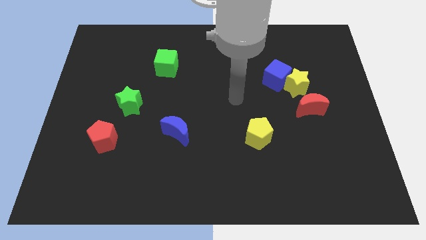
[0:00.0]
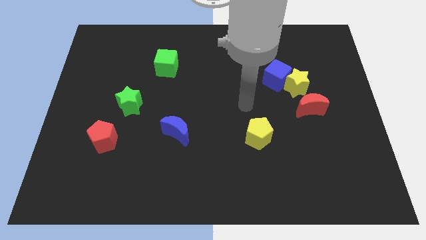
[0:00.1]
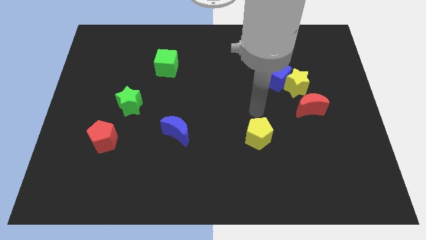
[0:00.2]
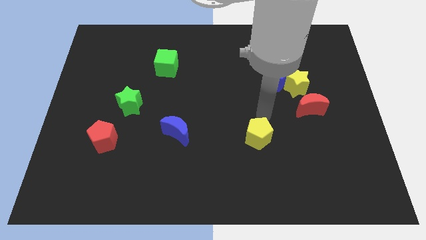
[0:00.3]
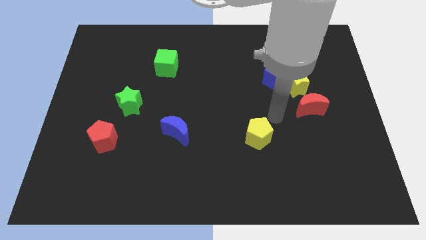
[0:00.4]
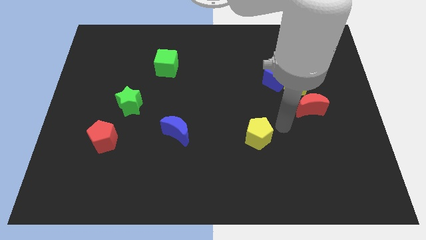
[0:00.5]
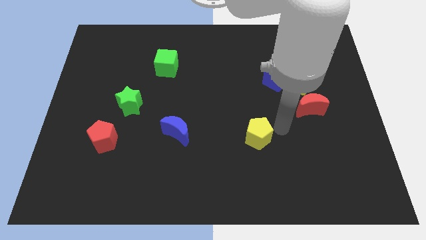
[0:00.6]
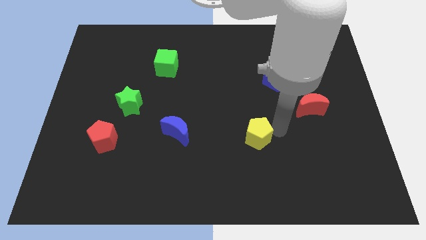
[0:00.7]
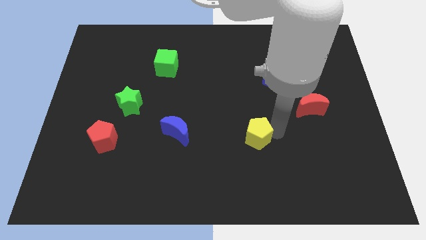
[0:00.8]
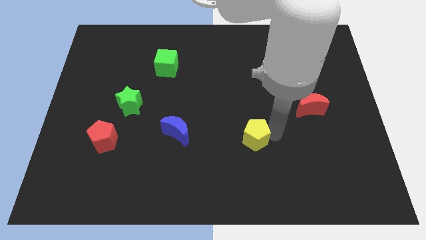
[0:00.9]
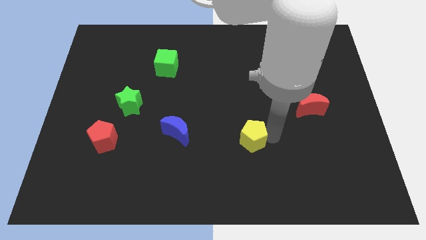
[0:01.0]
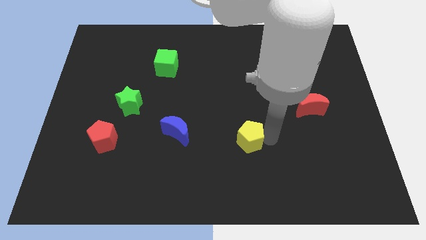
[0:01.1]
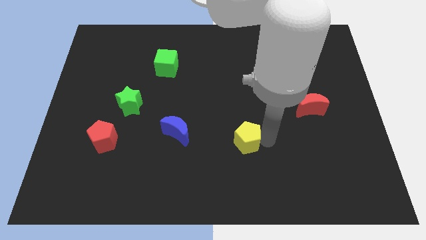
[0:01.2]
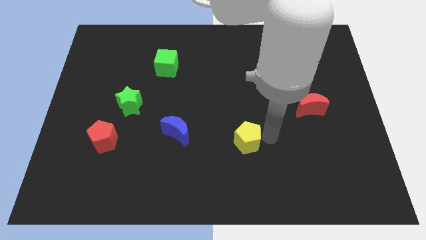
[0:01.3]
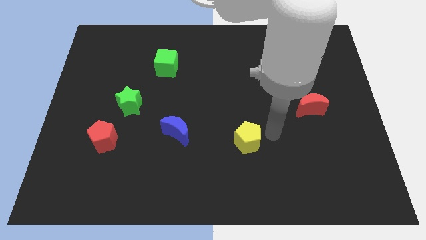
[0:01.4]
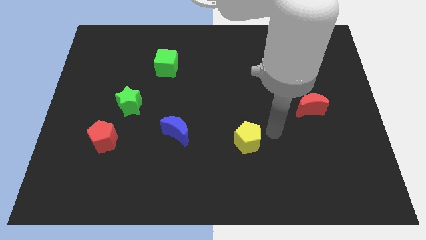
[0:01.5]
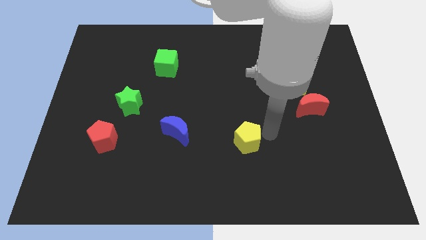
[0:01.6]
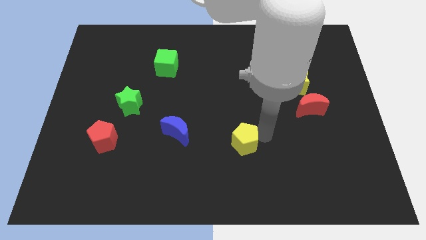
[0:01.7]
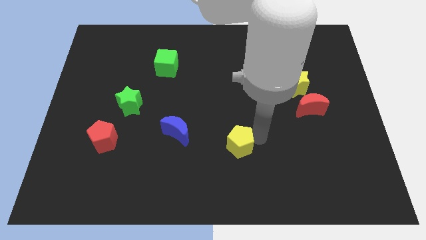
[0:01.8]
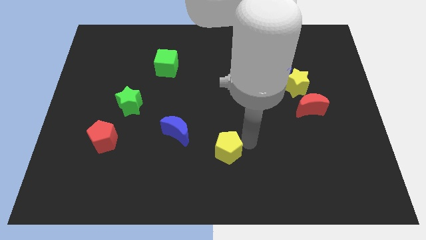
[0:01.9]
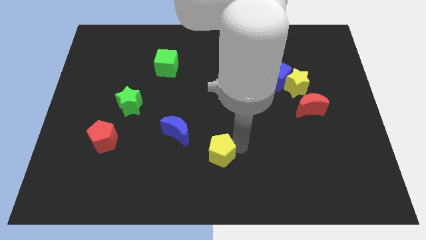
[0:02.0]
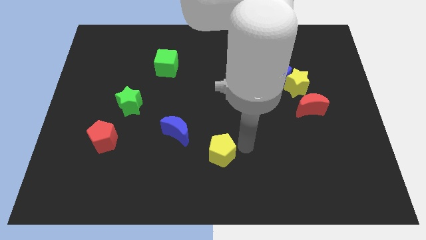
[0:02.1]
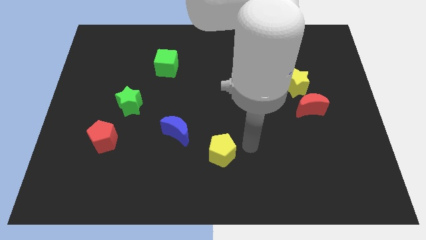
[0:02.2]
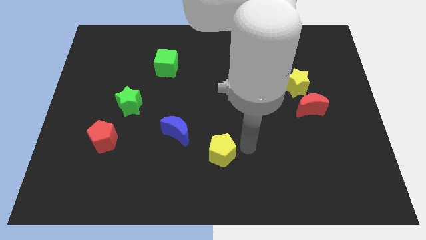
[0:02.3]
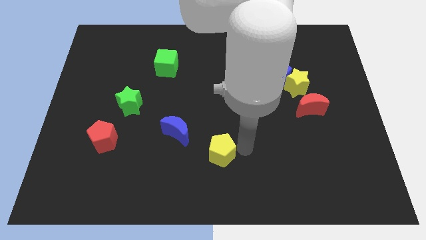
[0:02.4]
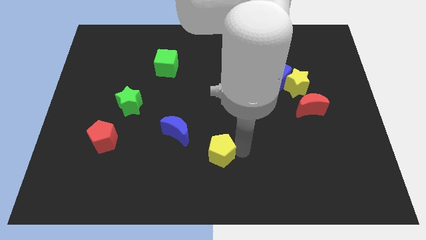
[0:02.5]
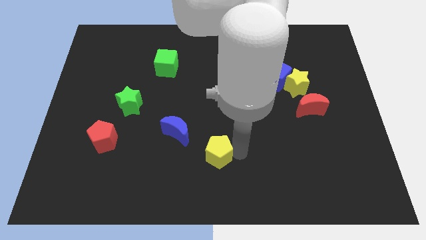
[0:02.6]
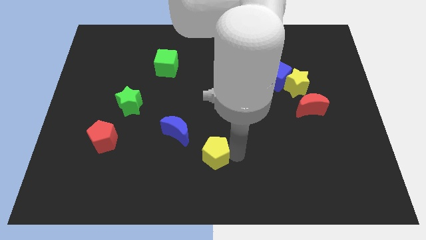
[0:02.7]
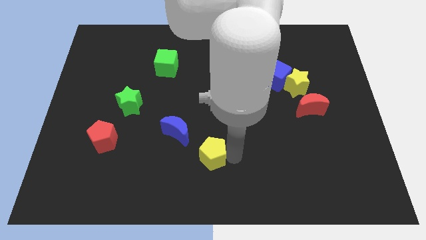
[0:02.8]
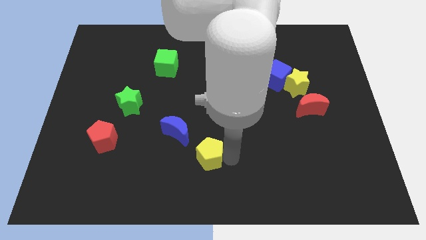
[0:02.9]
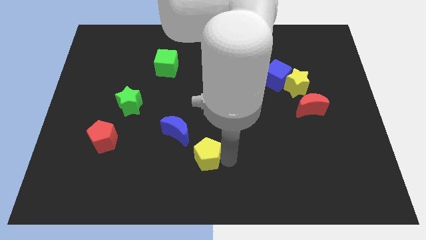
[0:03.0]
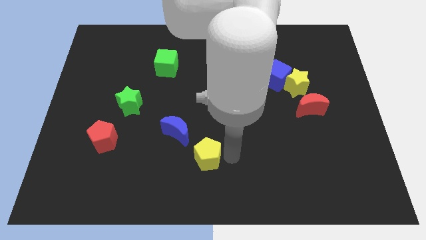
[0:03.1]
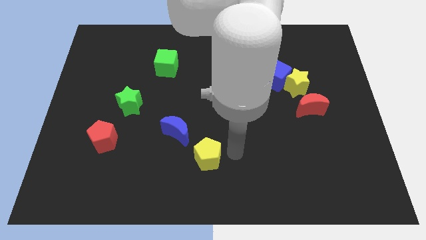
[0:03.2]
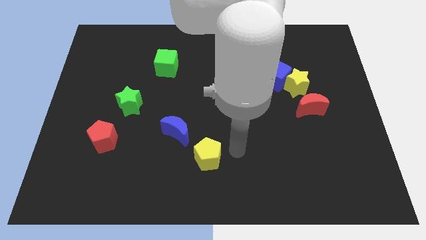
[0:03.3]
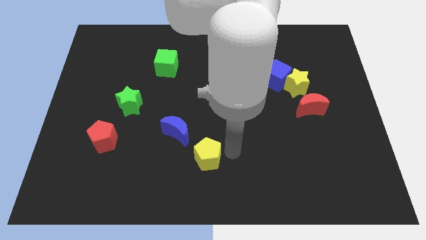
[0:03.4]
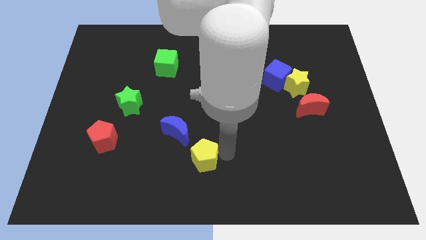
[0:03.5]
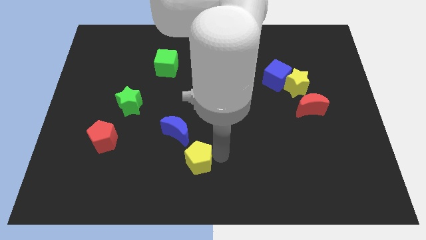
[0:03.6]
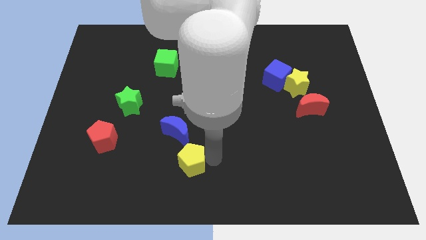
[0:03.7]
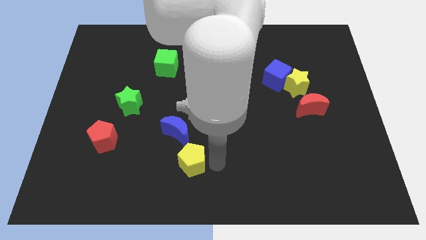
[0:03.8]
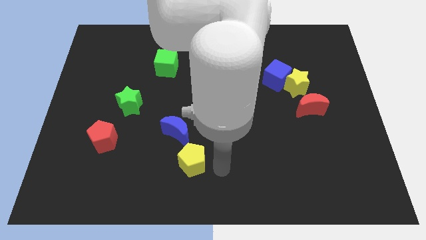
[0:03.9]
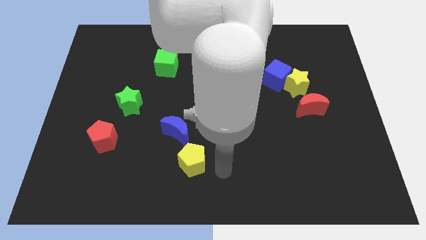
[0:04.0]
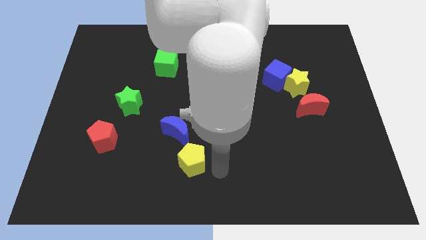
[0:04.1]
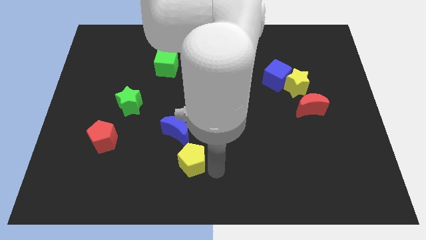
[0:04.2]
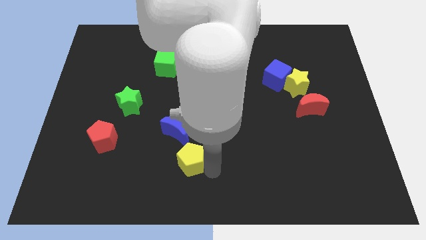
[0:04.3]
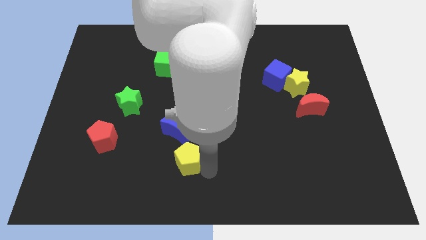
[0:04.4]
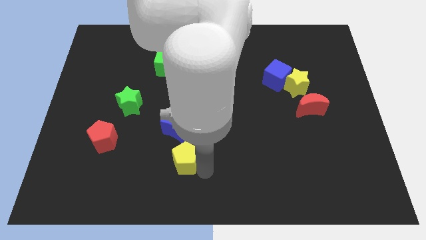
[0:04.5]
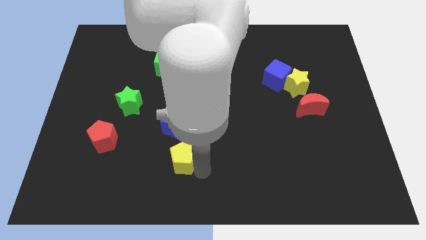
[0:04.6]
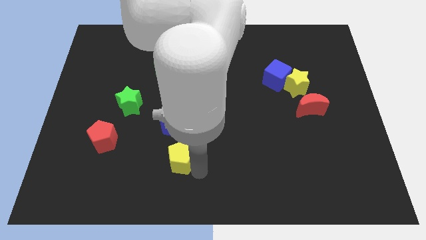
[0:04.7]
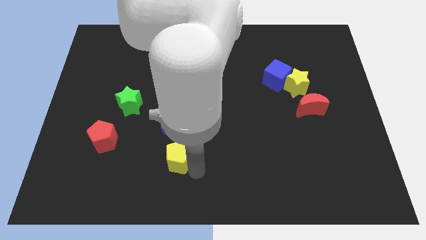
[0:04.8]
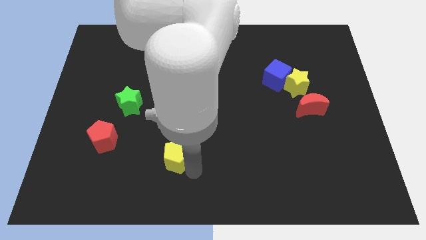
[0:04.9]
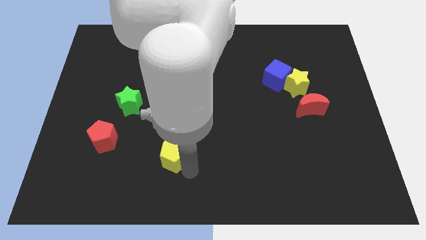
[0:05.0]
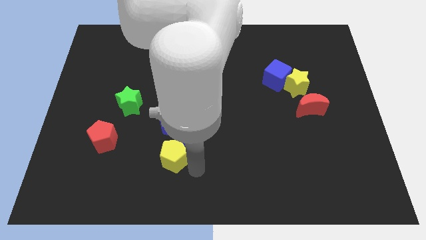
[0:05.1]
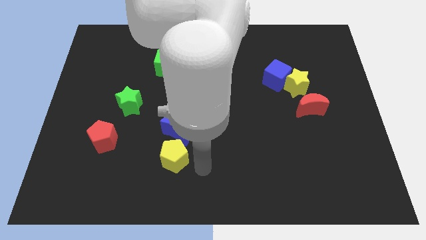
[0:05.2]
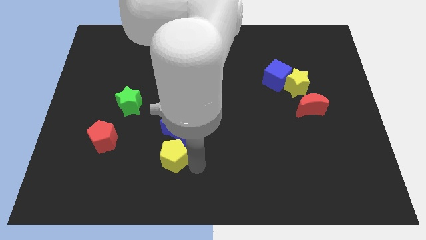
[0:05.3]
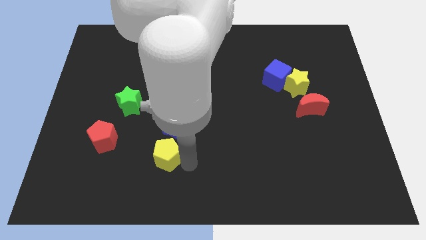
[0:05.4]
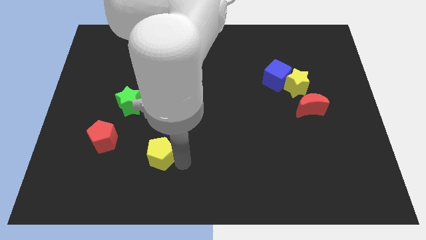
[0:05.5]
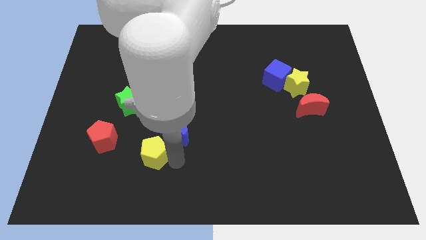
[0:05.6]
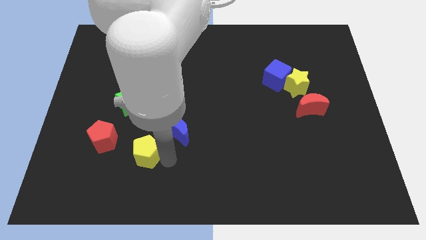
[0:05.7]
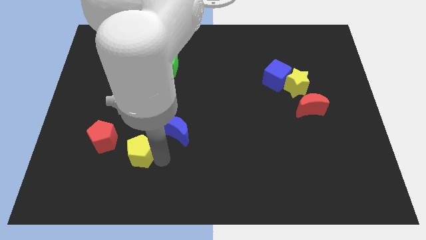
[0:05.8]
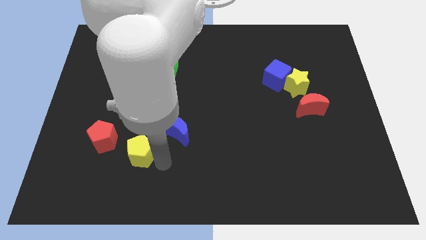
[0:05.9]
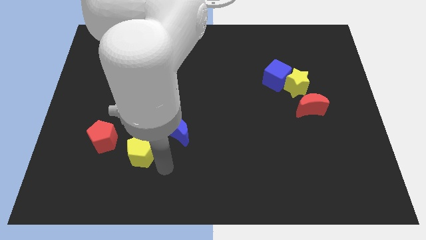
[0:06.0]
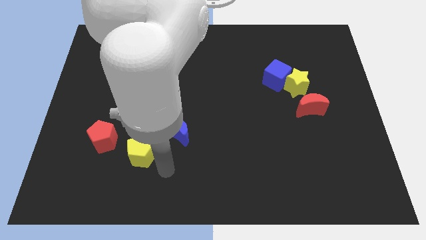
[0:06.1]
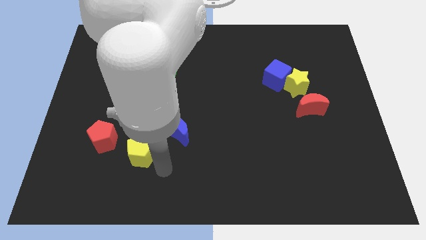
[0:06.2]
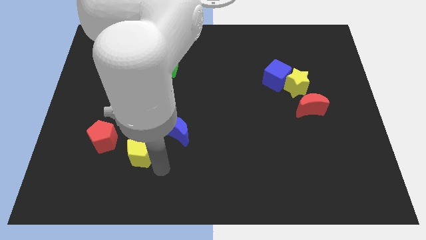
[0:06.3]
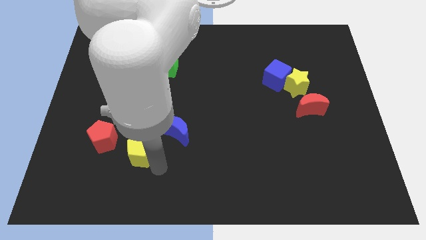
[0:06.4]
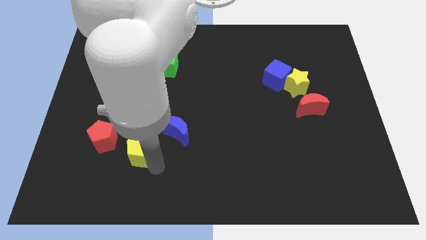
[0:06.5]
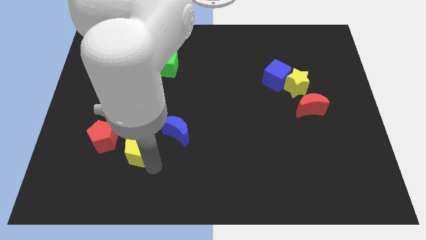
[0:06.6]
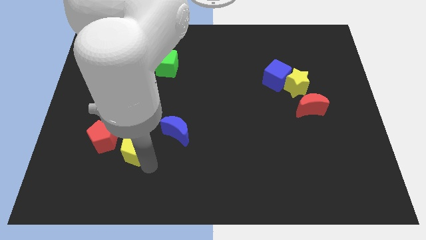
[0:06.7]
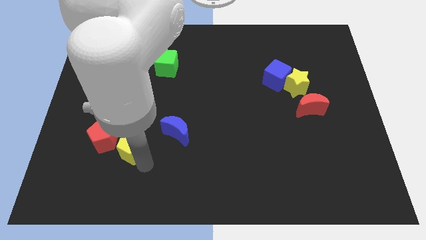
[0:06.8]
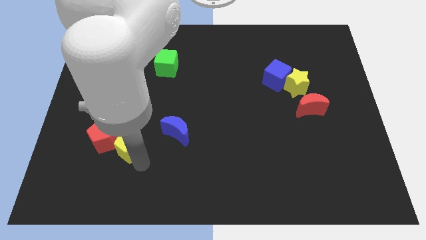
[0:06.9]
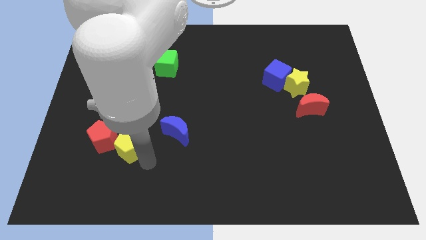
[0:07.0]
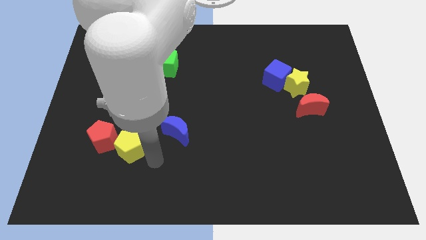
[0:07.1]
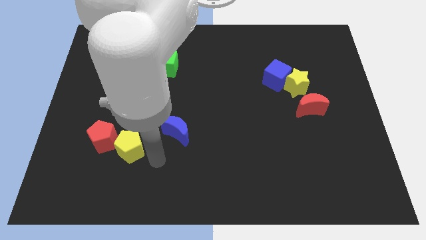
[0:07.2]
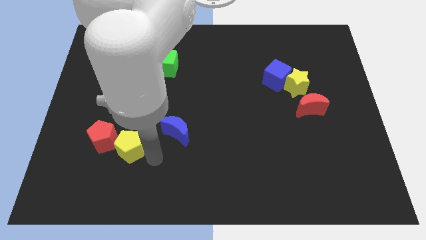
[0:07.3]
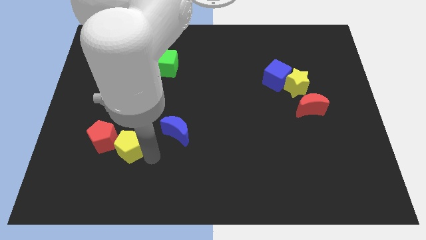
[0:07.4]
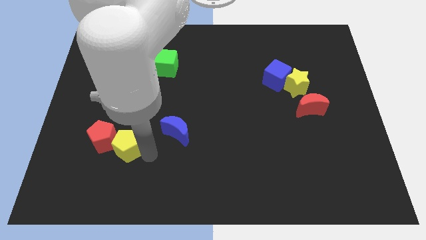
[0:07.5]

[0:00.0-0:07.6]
slide the yellow pentagon close to the red pentagon
